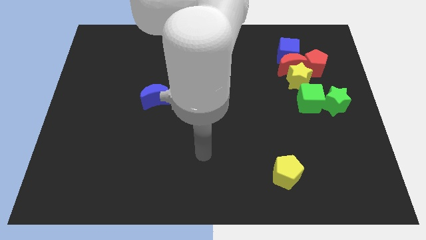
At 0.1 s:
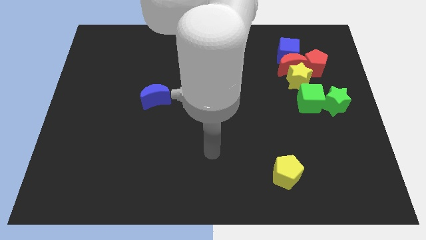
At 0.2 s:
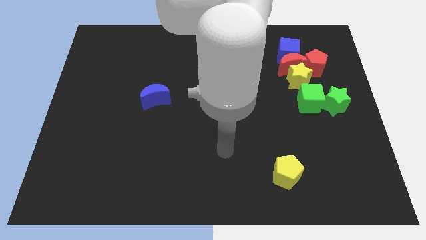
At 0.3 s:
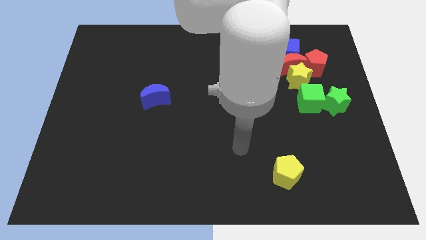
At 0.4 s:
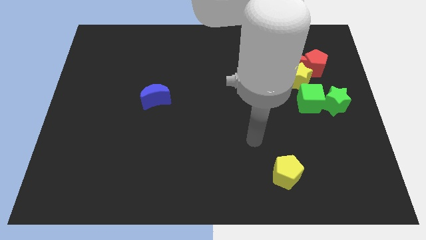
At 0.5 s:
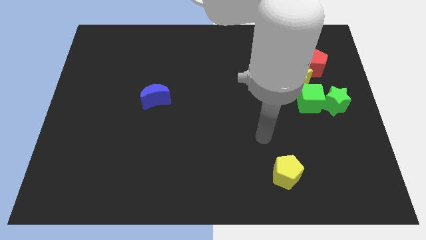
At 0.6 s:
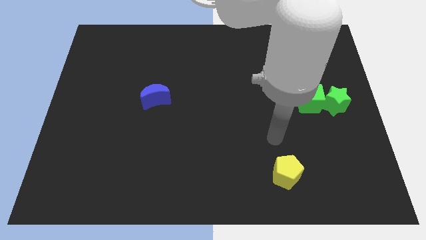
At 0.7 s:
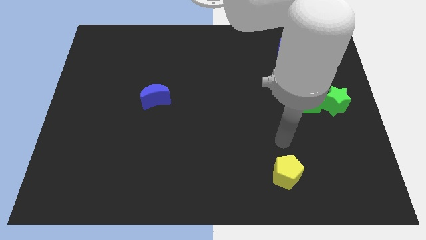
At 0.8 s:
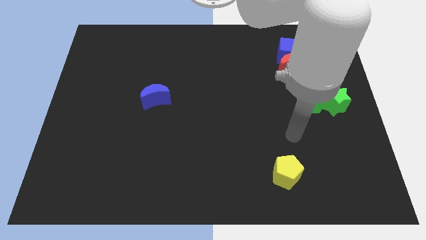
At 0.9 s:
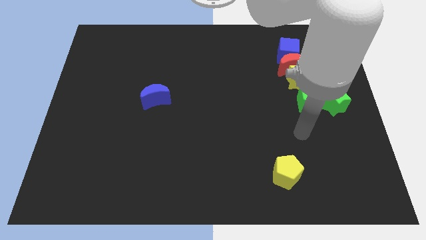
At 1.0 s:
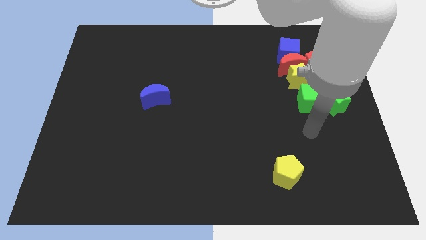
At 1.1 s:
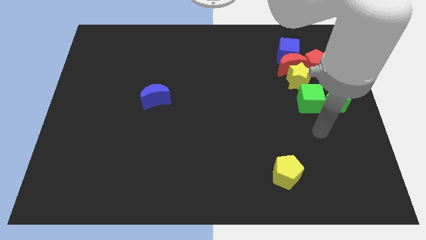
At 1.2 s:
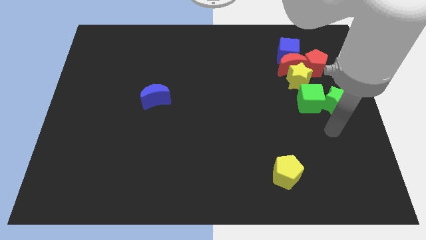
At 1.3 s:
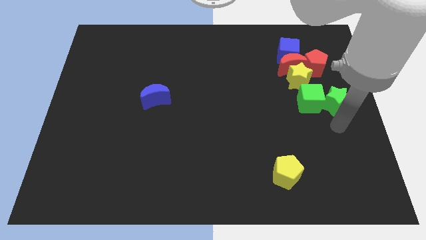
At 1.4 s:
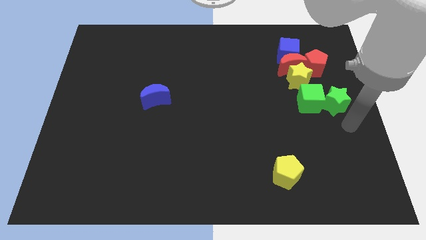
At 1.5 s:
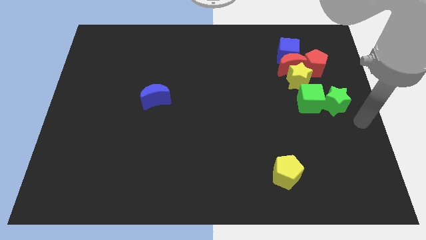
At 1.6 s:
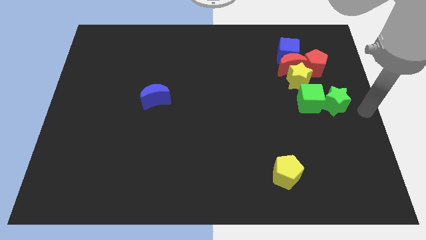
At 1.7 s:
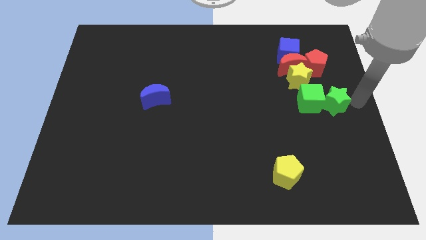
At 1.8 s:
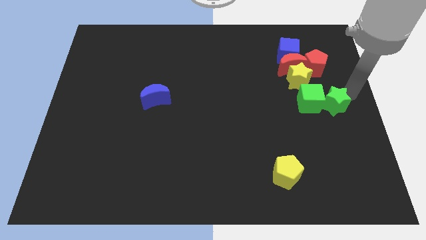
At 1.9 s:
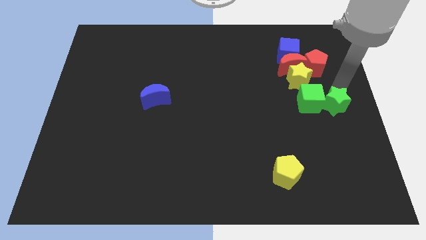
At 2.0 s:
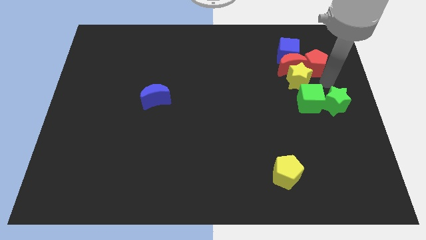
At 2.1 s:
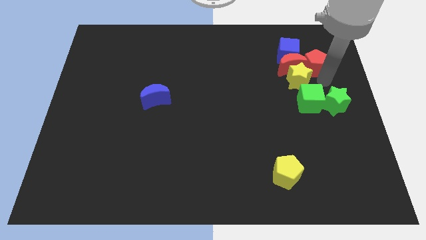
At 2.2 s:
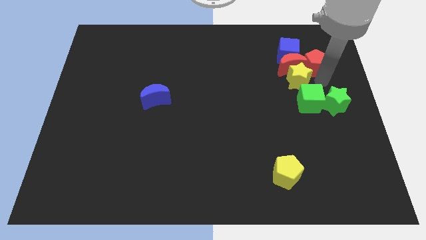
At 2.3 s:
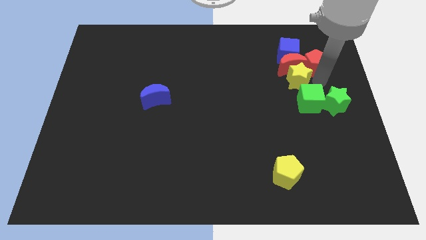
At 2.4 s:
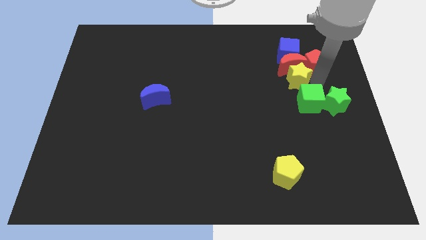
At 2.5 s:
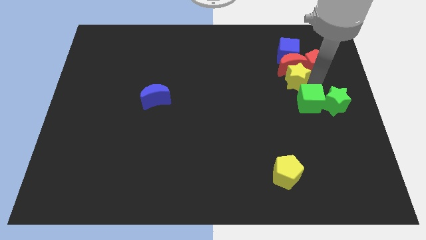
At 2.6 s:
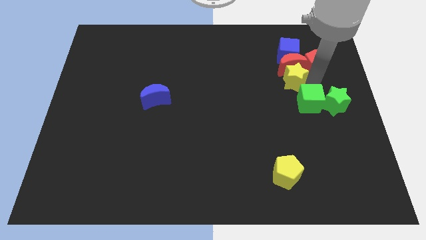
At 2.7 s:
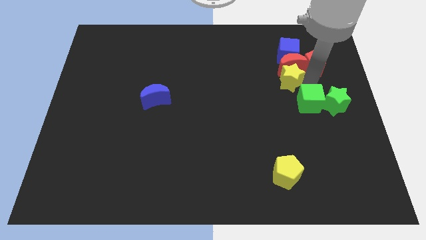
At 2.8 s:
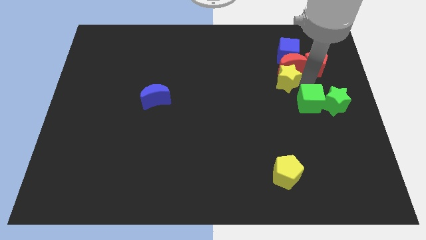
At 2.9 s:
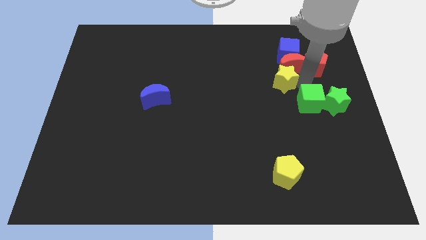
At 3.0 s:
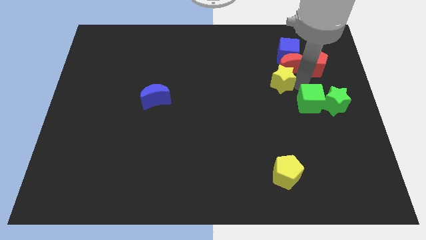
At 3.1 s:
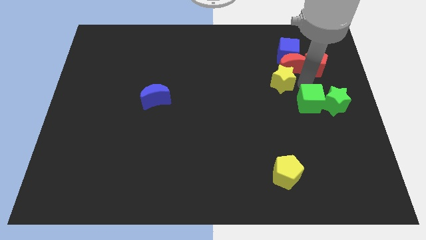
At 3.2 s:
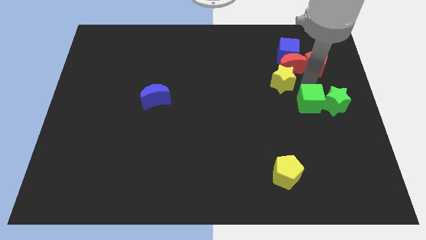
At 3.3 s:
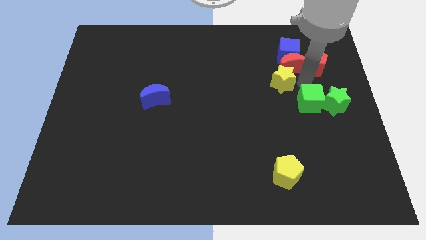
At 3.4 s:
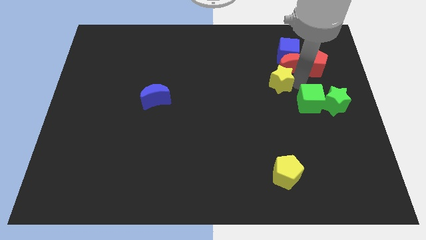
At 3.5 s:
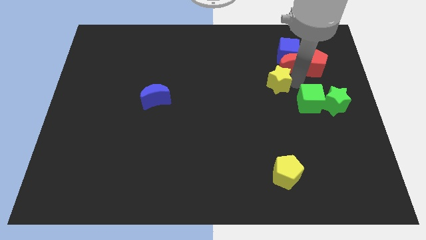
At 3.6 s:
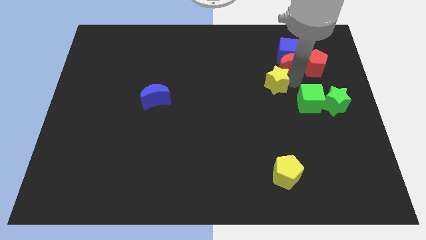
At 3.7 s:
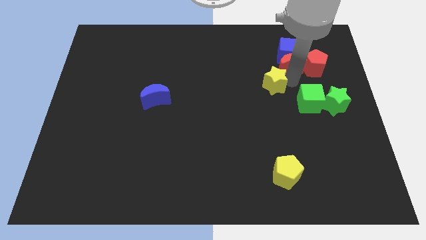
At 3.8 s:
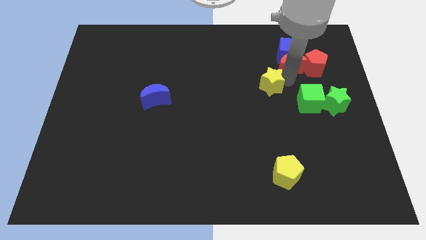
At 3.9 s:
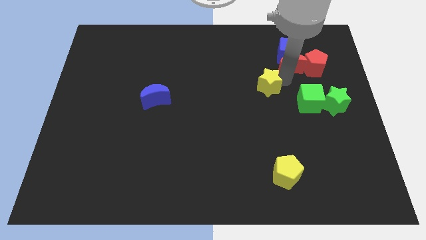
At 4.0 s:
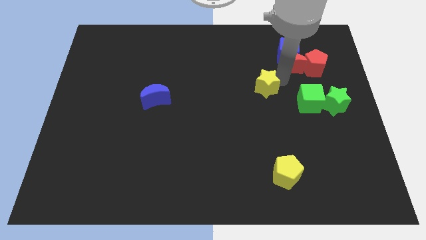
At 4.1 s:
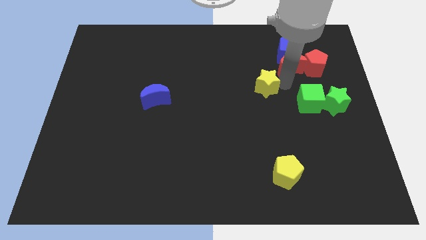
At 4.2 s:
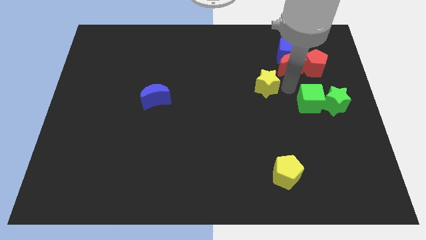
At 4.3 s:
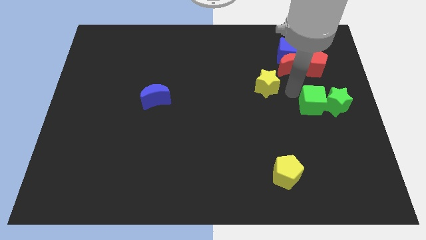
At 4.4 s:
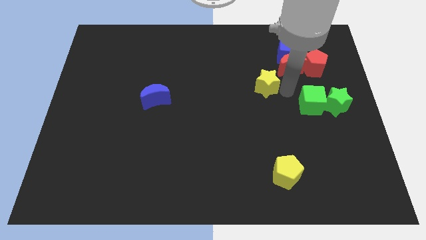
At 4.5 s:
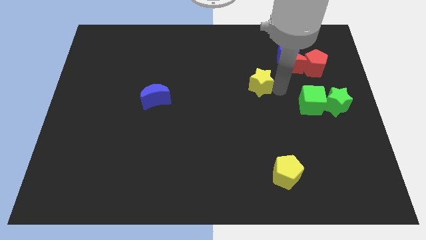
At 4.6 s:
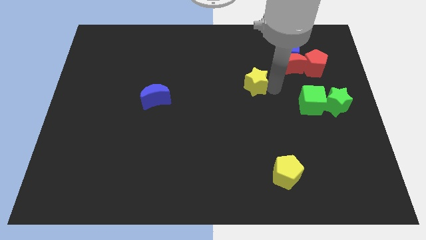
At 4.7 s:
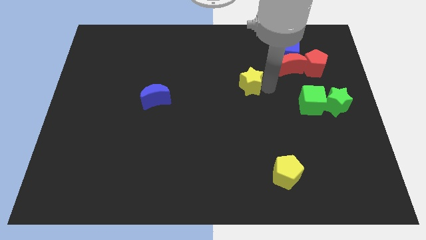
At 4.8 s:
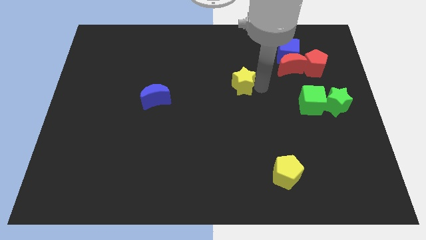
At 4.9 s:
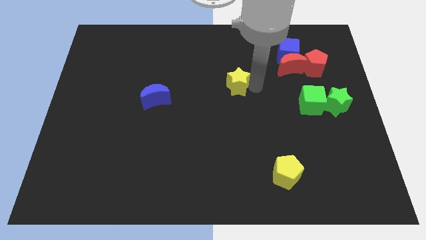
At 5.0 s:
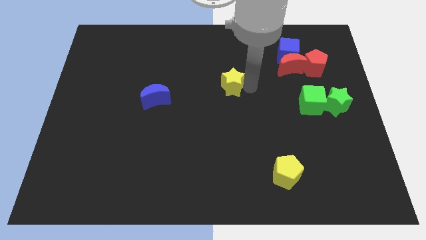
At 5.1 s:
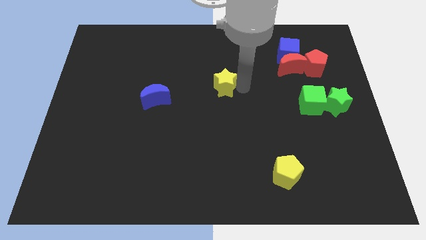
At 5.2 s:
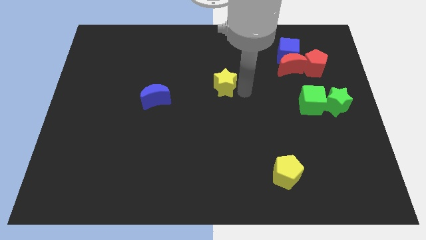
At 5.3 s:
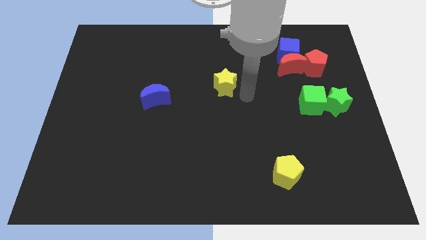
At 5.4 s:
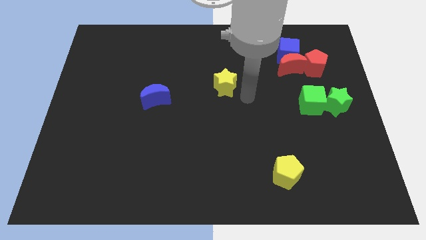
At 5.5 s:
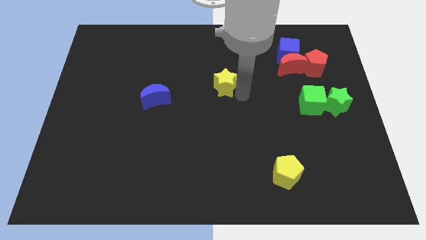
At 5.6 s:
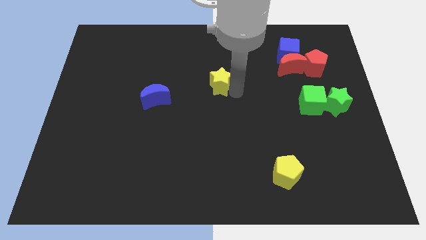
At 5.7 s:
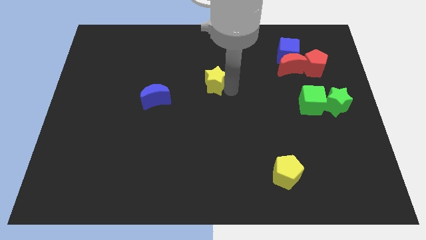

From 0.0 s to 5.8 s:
push the yellow star to the left

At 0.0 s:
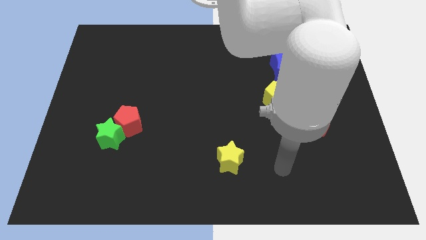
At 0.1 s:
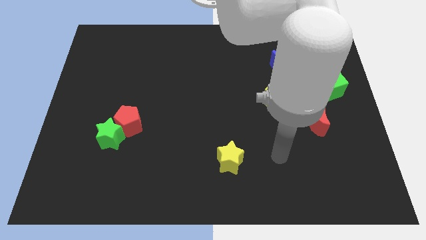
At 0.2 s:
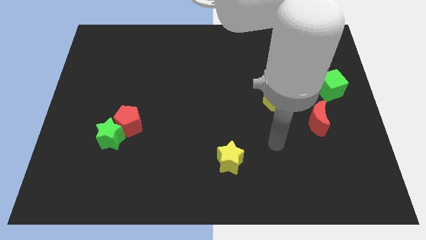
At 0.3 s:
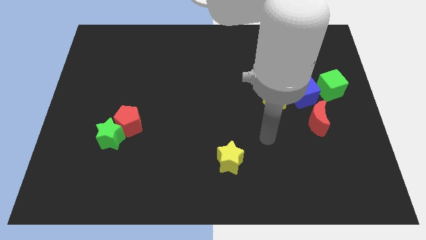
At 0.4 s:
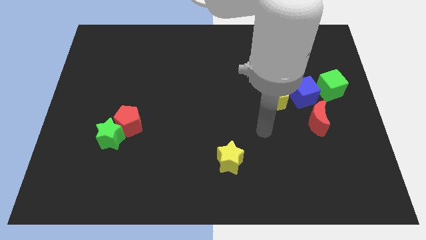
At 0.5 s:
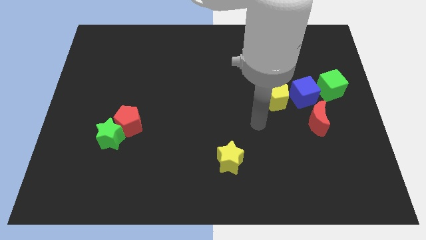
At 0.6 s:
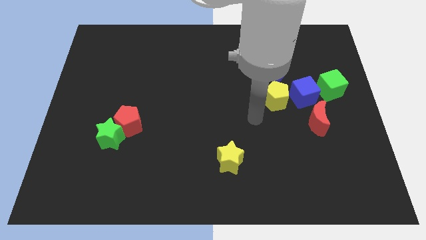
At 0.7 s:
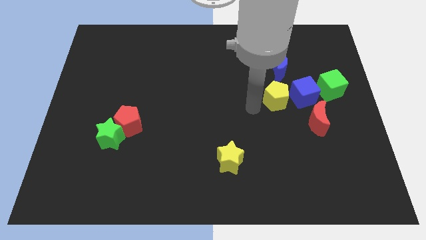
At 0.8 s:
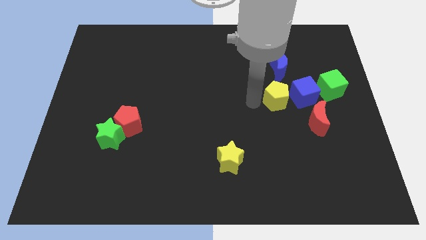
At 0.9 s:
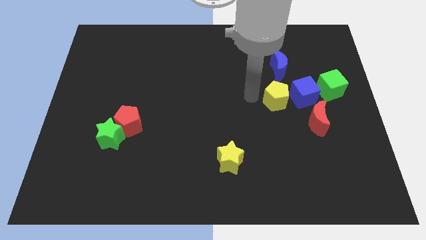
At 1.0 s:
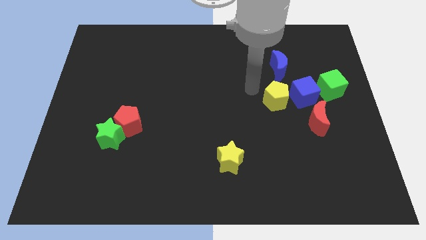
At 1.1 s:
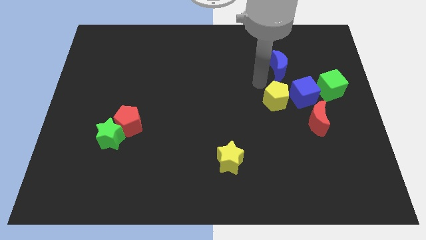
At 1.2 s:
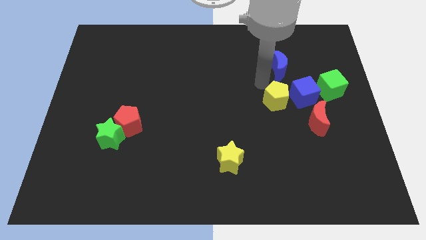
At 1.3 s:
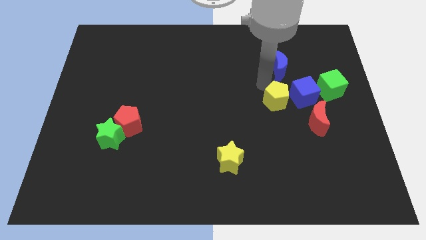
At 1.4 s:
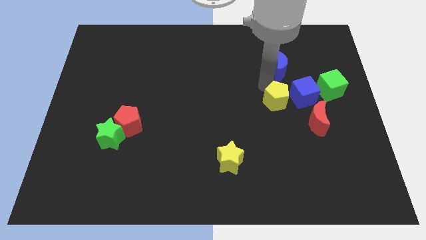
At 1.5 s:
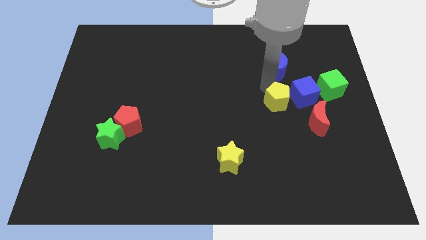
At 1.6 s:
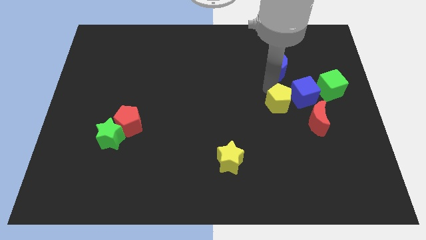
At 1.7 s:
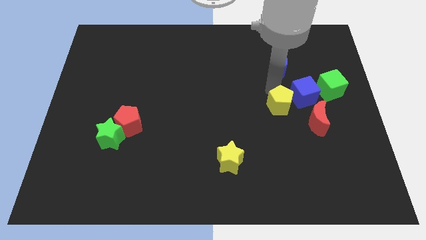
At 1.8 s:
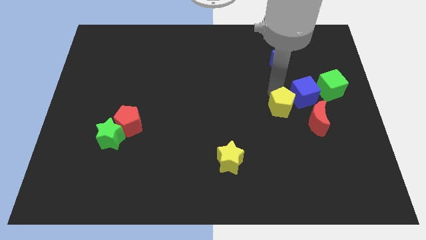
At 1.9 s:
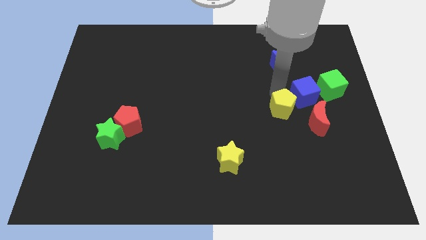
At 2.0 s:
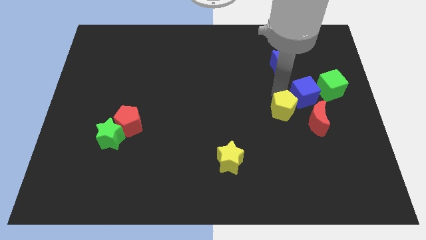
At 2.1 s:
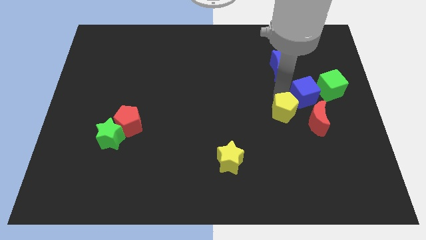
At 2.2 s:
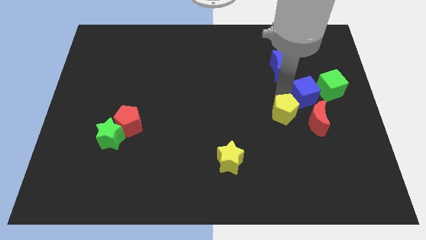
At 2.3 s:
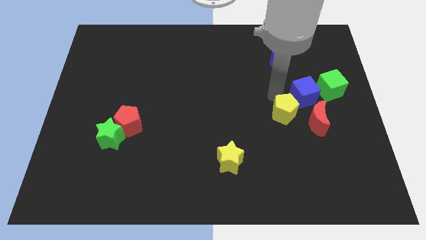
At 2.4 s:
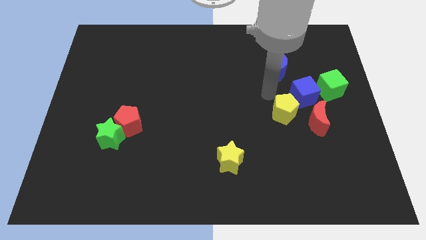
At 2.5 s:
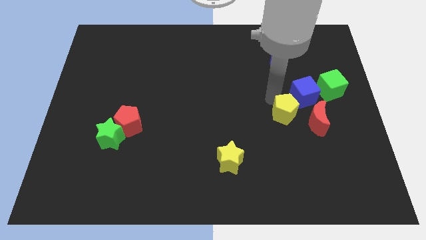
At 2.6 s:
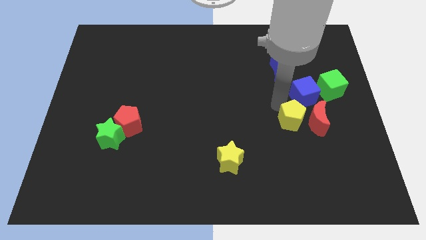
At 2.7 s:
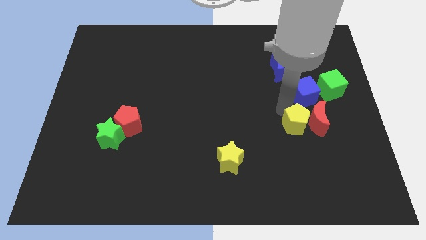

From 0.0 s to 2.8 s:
move the yellow pentagon a bit downwards and right diagonally
